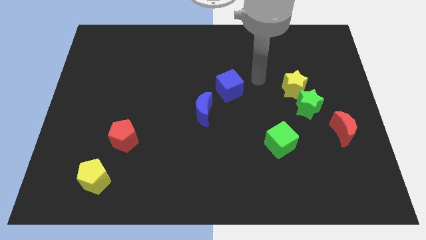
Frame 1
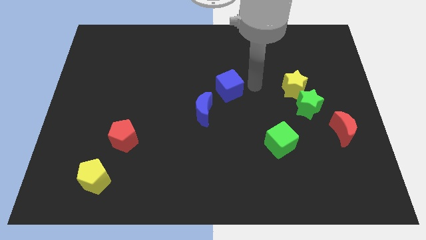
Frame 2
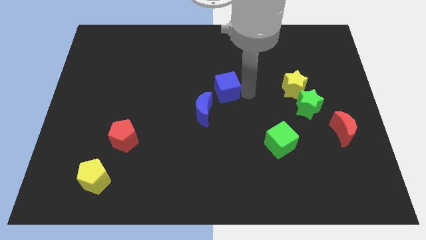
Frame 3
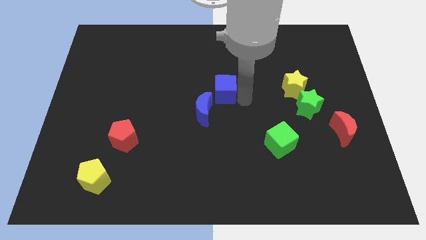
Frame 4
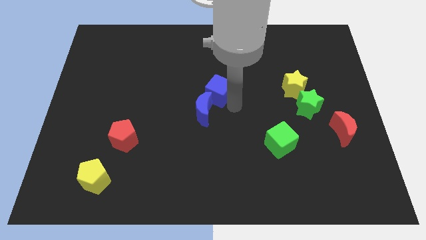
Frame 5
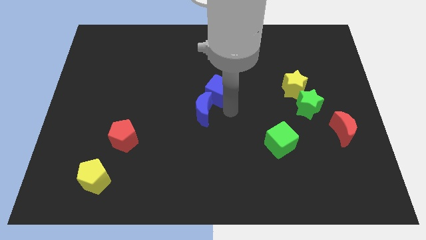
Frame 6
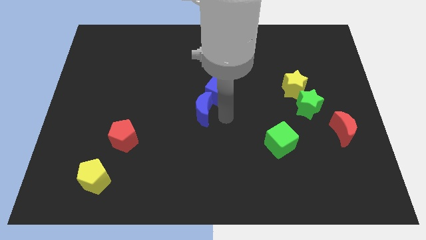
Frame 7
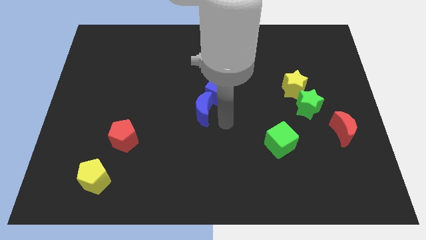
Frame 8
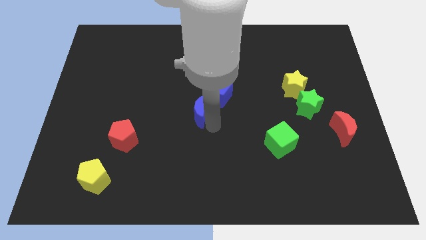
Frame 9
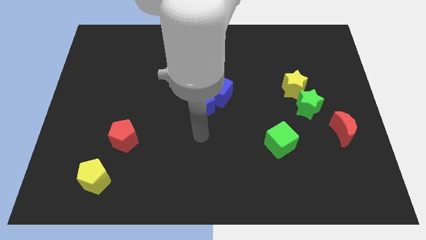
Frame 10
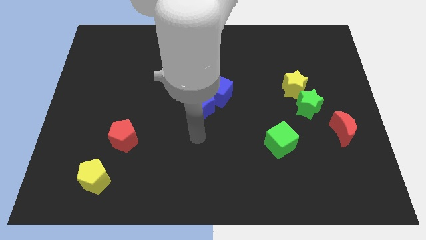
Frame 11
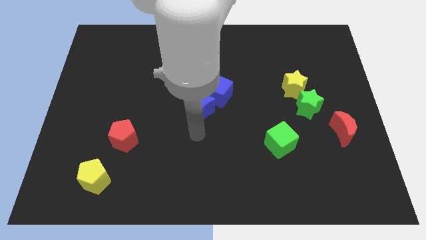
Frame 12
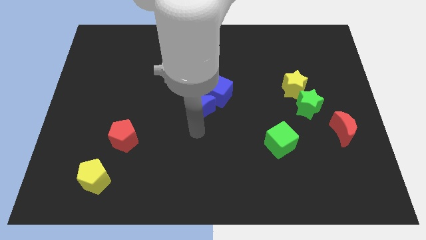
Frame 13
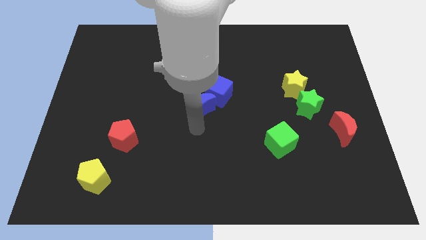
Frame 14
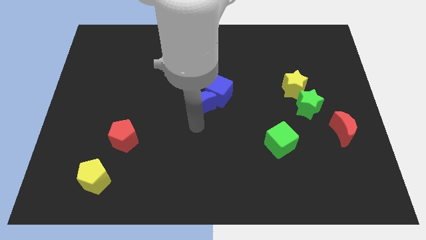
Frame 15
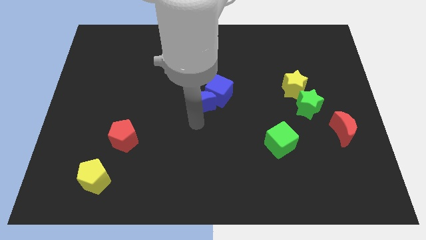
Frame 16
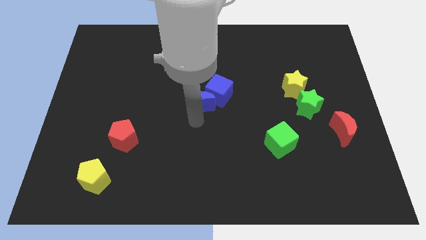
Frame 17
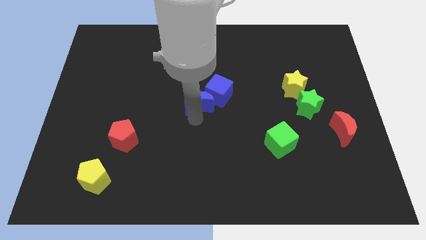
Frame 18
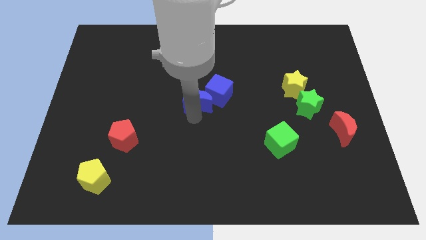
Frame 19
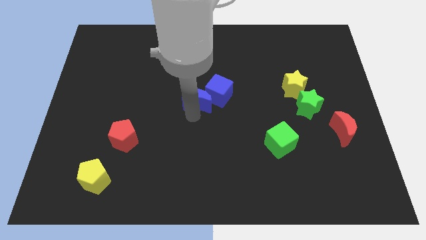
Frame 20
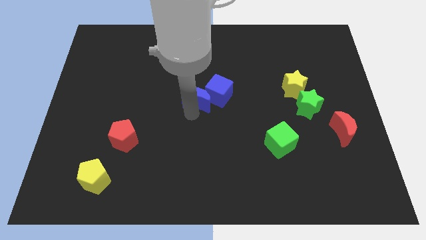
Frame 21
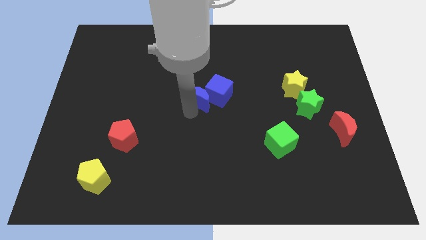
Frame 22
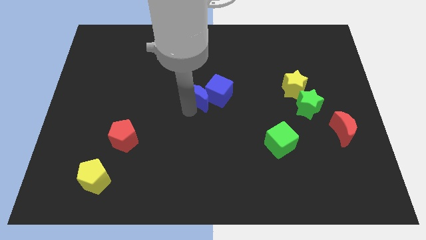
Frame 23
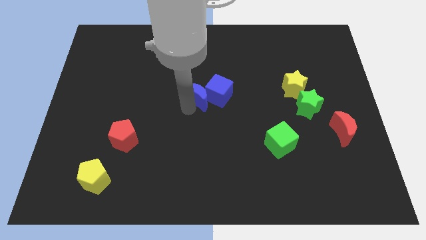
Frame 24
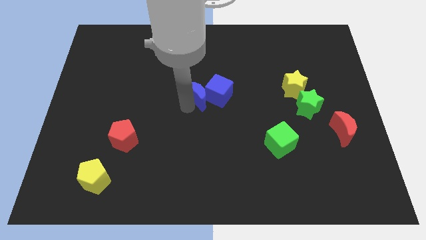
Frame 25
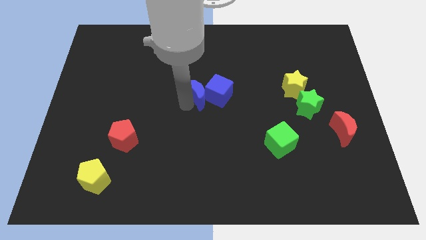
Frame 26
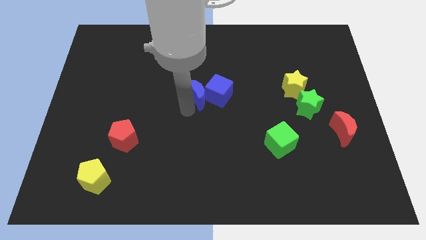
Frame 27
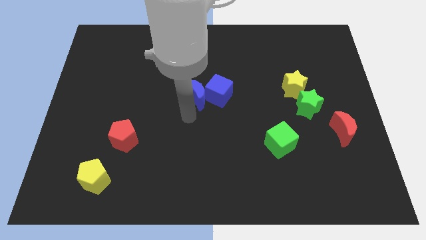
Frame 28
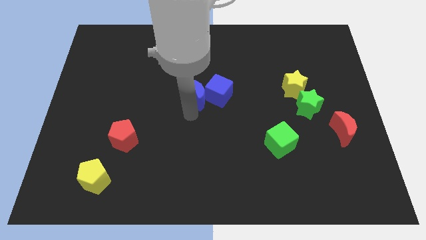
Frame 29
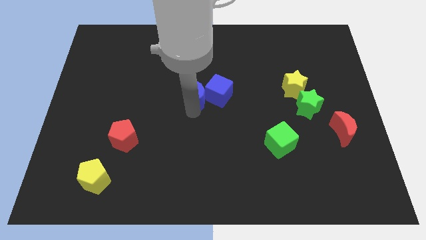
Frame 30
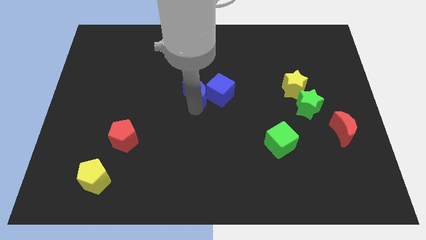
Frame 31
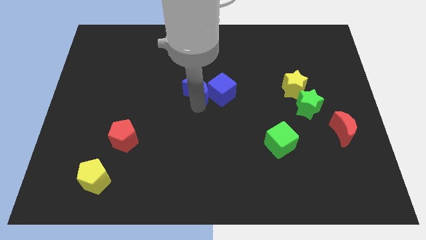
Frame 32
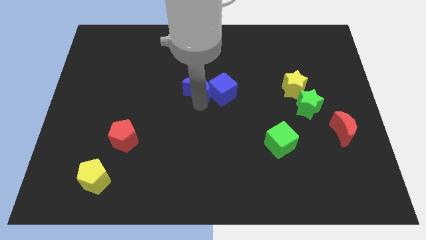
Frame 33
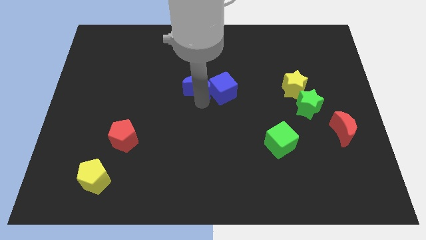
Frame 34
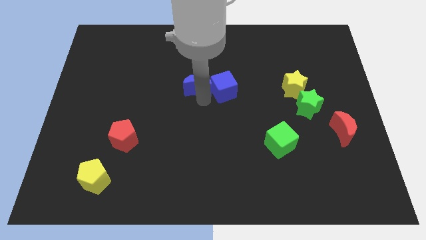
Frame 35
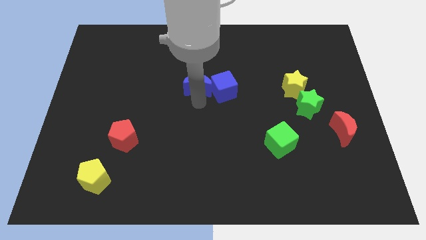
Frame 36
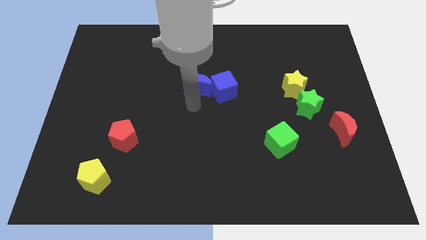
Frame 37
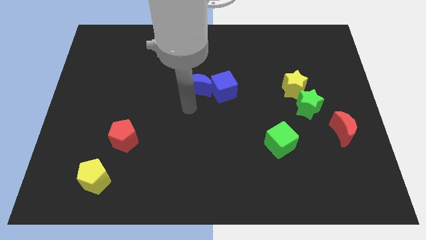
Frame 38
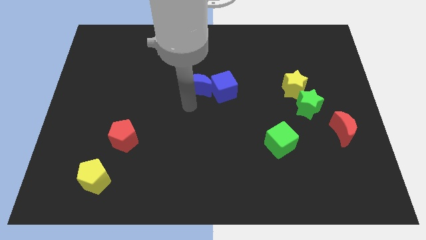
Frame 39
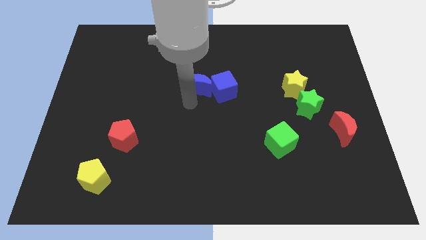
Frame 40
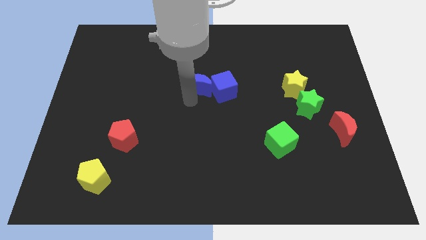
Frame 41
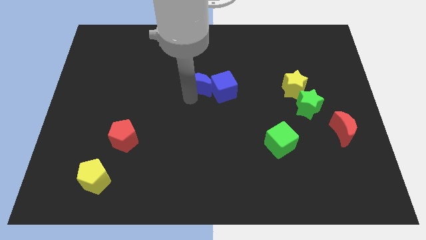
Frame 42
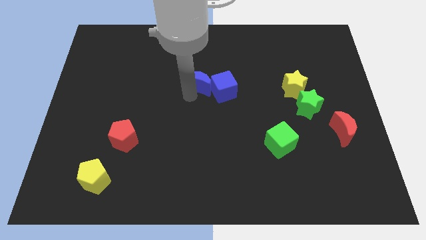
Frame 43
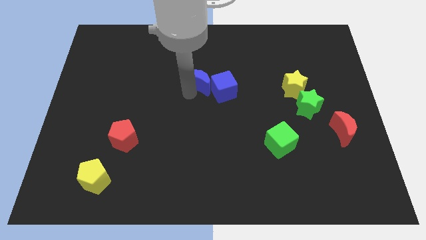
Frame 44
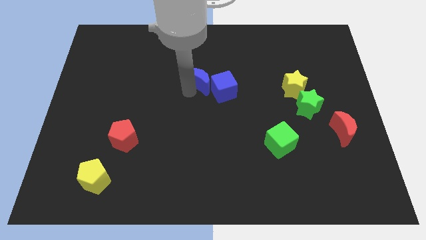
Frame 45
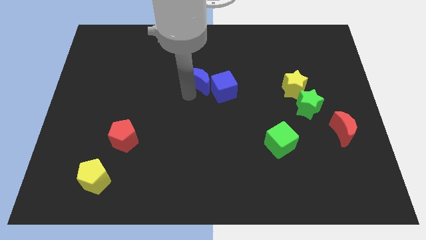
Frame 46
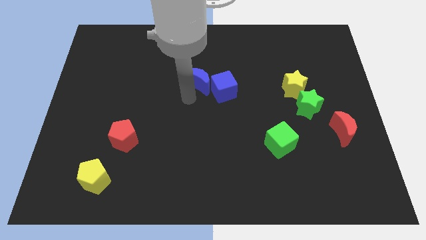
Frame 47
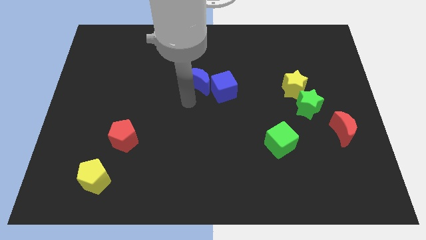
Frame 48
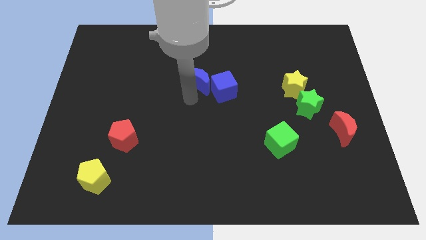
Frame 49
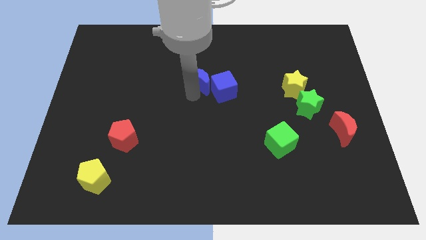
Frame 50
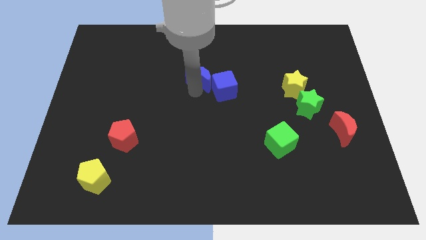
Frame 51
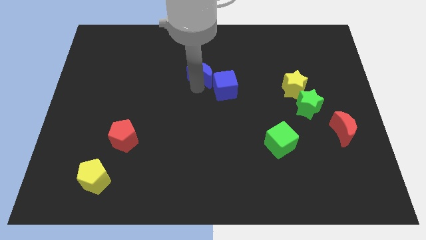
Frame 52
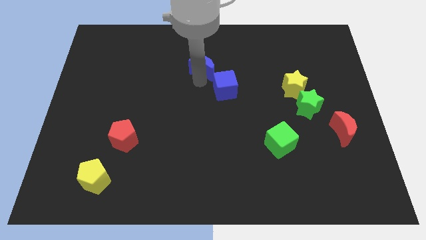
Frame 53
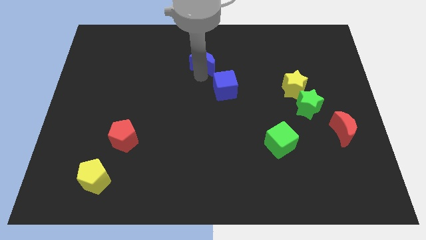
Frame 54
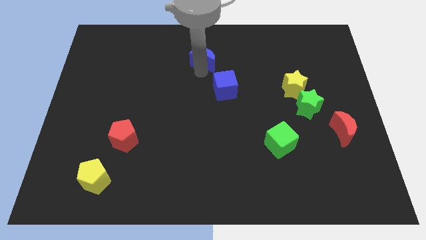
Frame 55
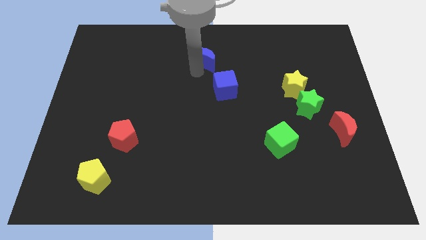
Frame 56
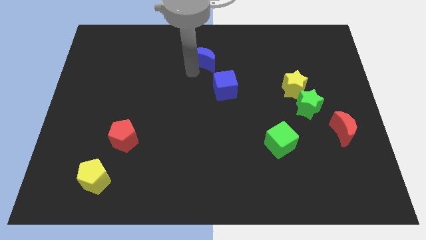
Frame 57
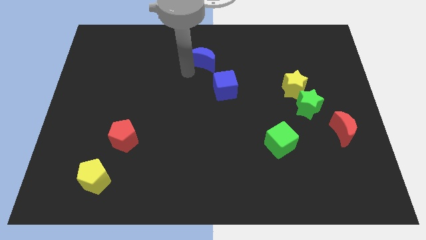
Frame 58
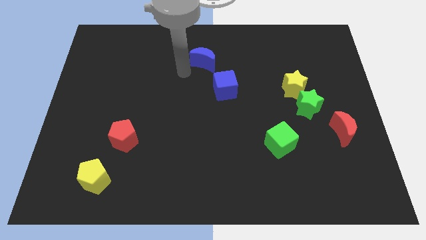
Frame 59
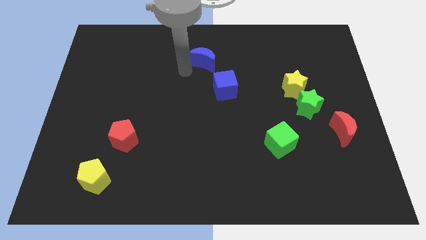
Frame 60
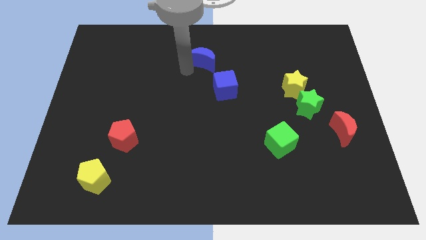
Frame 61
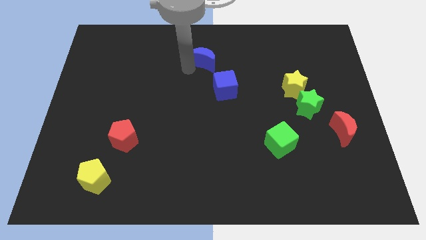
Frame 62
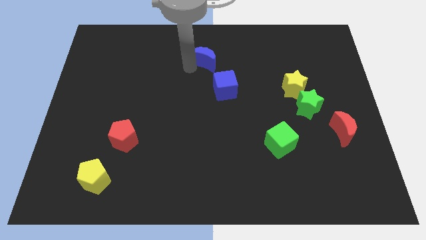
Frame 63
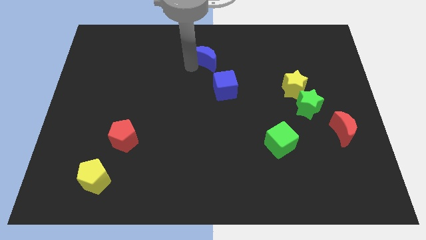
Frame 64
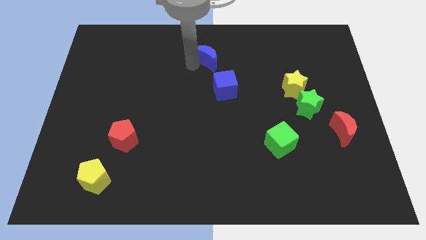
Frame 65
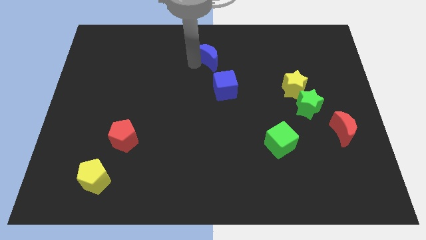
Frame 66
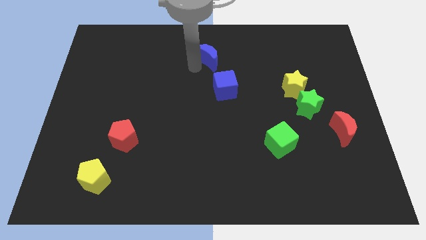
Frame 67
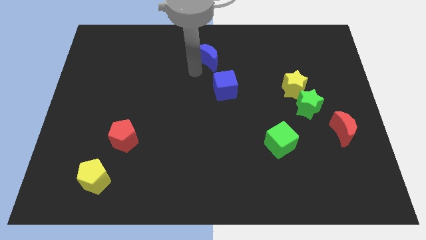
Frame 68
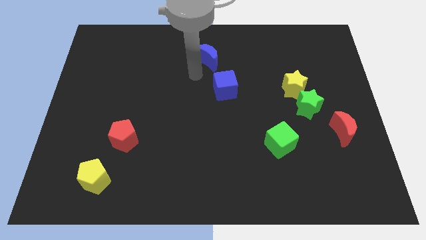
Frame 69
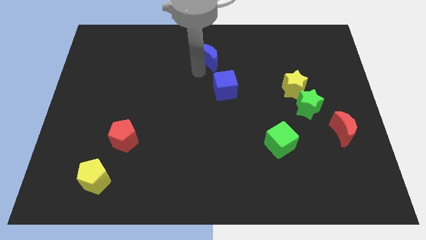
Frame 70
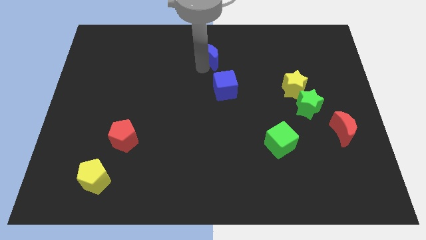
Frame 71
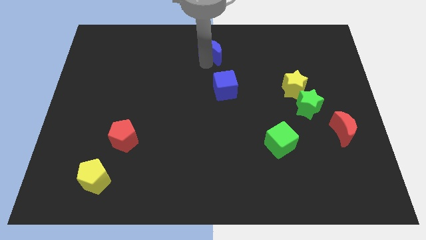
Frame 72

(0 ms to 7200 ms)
move the blue moon to the top
